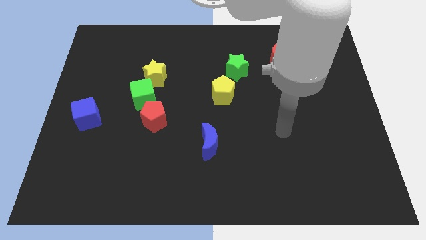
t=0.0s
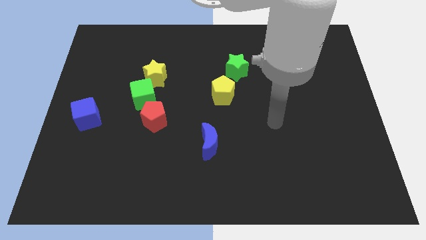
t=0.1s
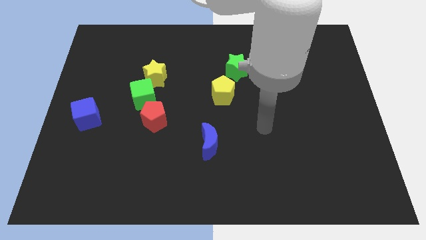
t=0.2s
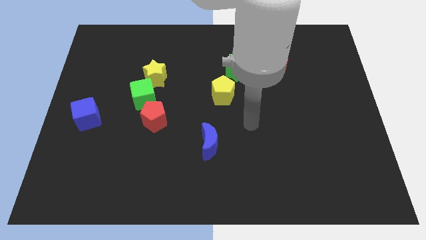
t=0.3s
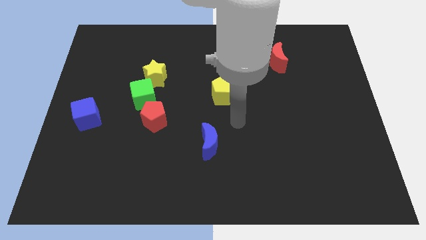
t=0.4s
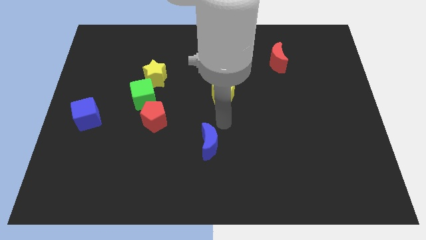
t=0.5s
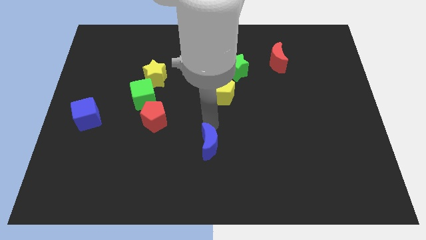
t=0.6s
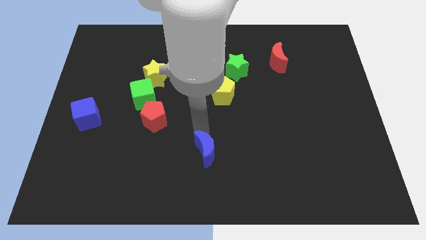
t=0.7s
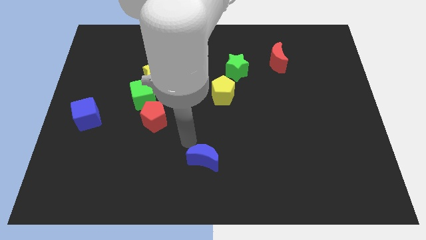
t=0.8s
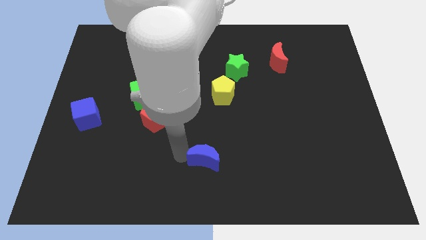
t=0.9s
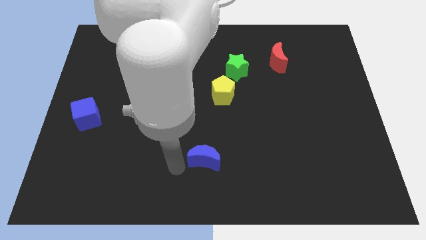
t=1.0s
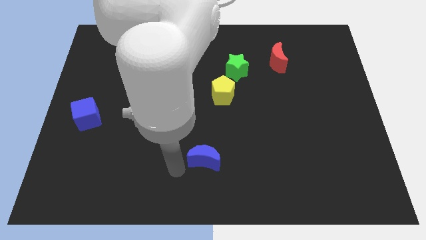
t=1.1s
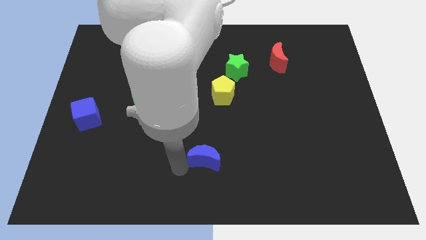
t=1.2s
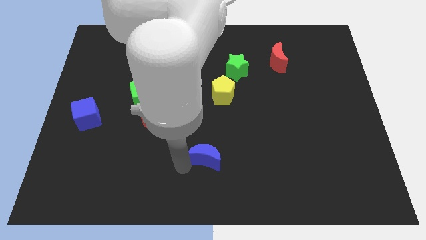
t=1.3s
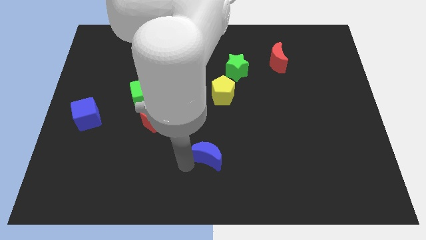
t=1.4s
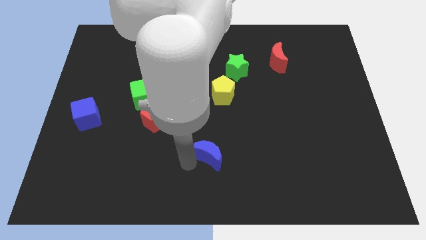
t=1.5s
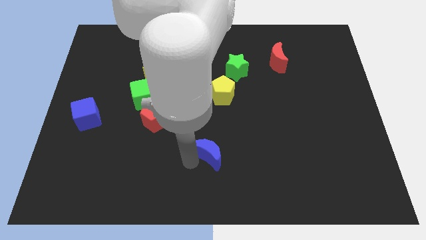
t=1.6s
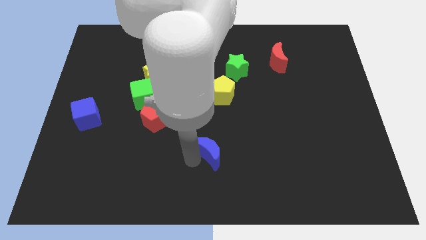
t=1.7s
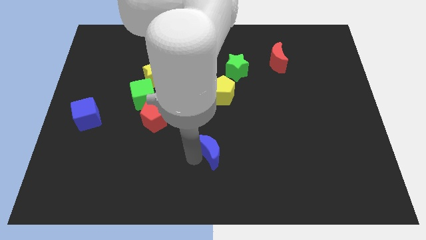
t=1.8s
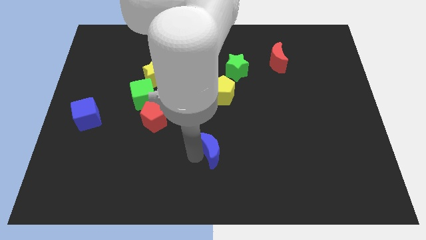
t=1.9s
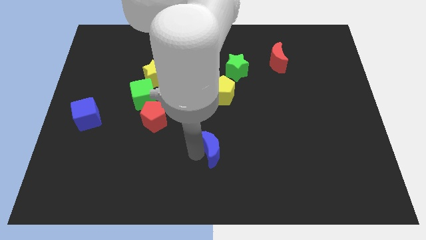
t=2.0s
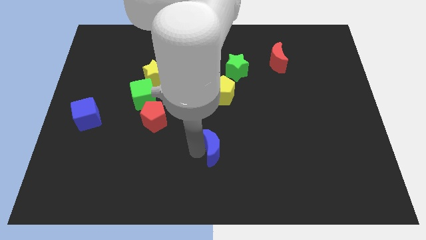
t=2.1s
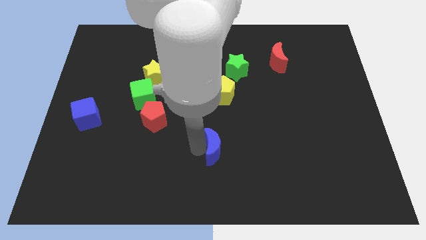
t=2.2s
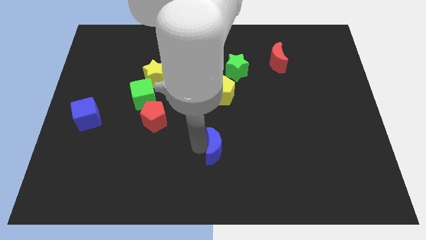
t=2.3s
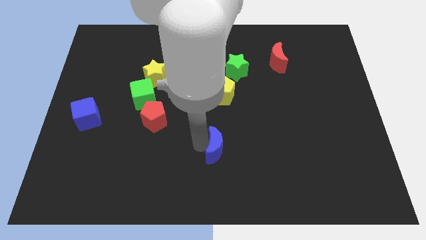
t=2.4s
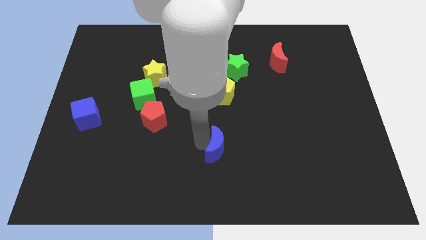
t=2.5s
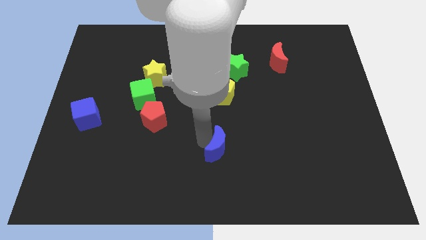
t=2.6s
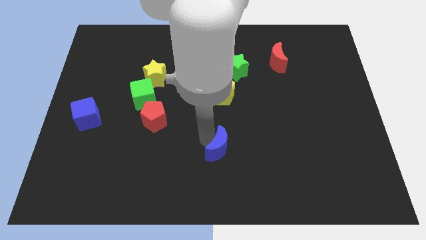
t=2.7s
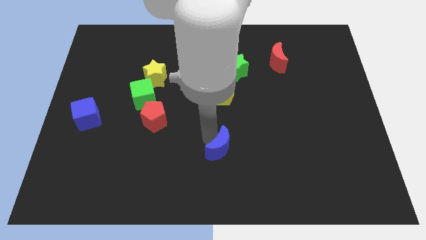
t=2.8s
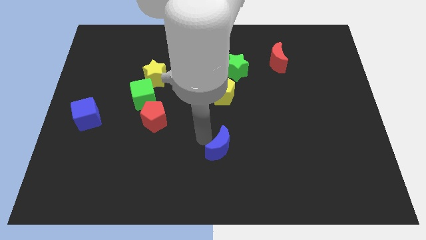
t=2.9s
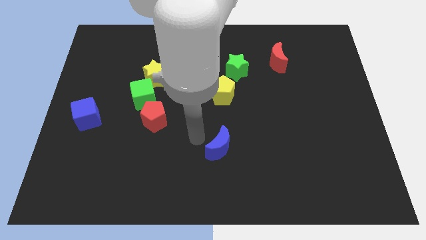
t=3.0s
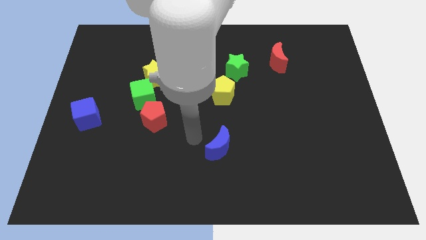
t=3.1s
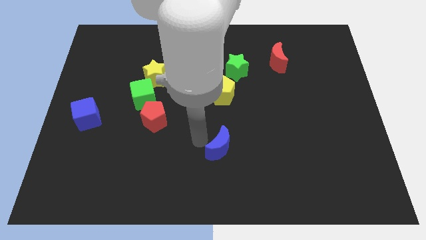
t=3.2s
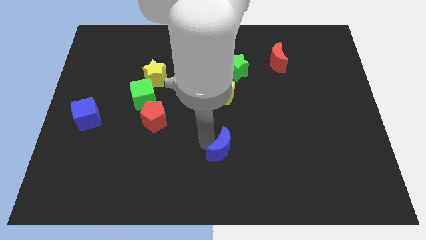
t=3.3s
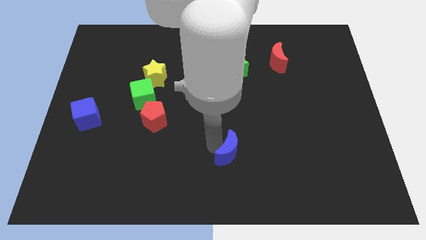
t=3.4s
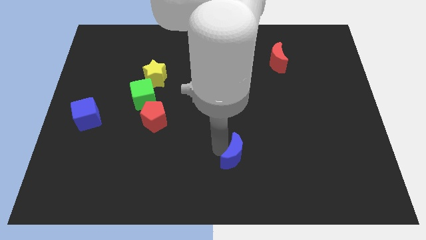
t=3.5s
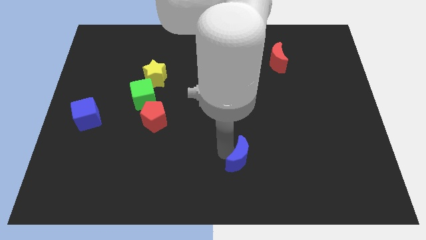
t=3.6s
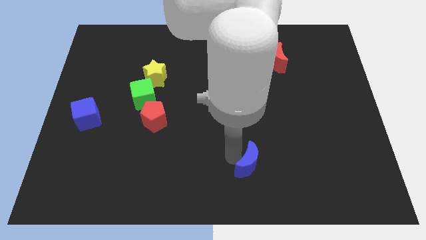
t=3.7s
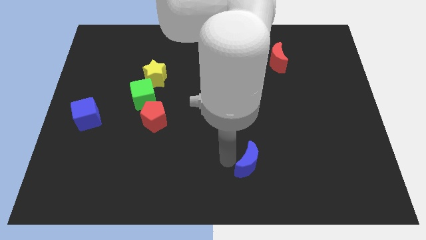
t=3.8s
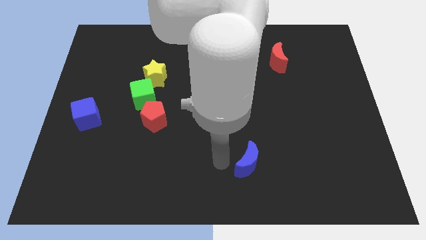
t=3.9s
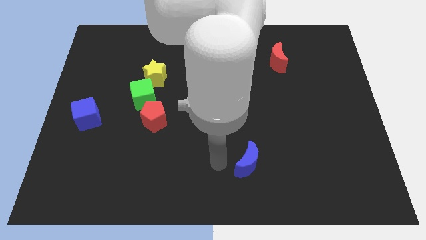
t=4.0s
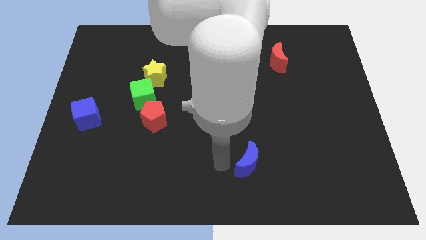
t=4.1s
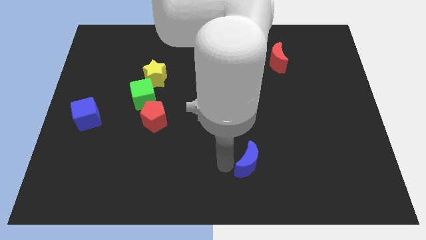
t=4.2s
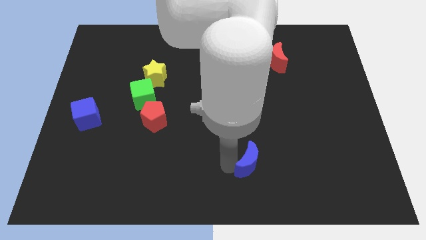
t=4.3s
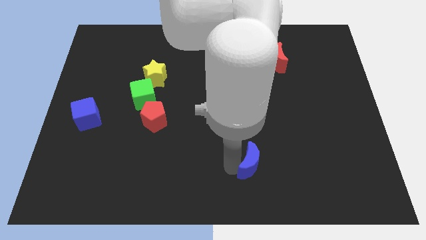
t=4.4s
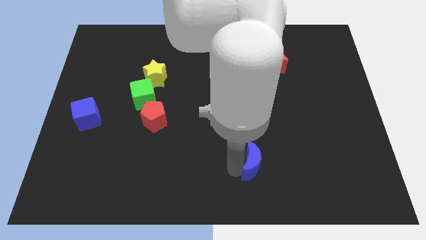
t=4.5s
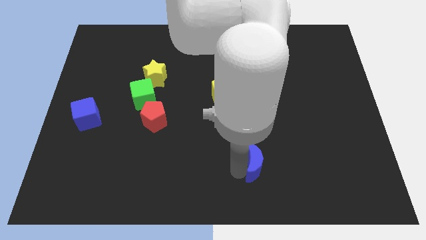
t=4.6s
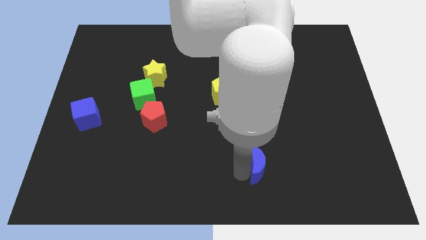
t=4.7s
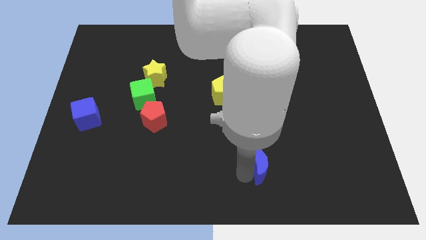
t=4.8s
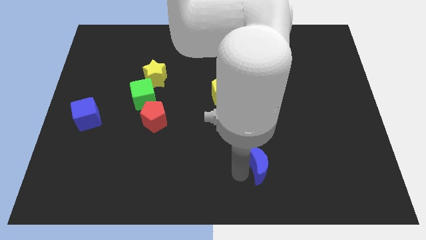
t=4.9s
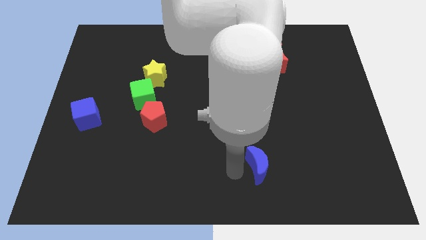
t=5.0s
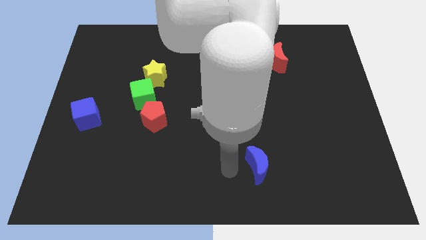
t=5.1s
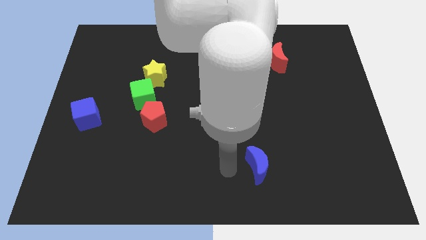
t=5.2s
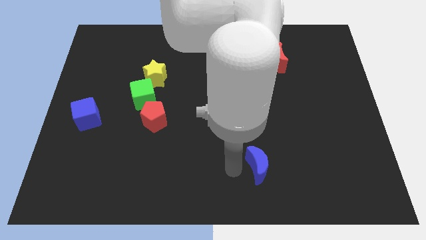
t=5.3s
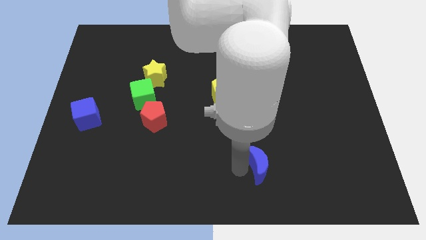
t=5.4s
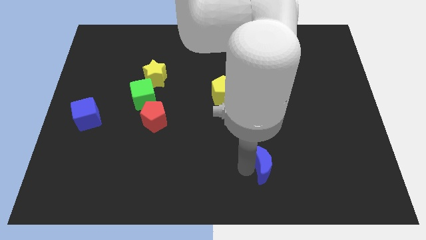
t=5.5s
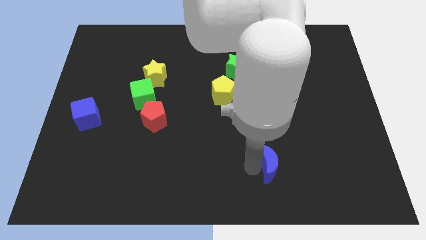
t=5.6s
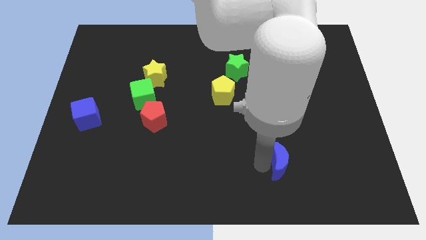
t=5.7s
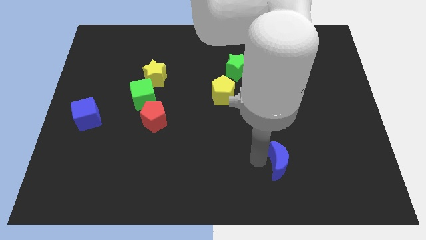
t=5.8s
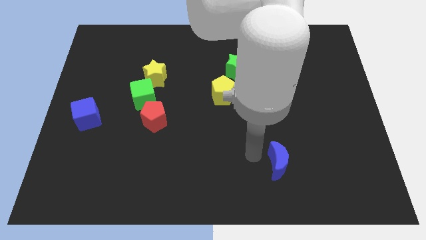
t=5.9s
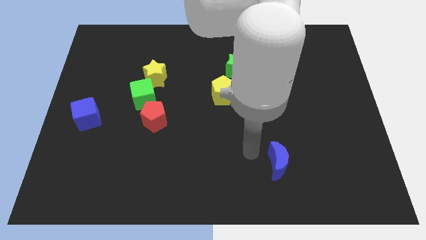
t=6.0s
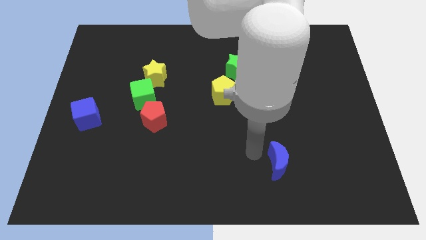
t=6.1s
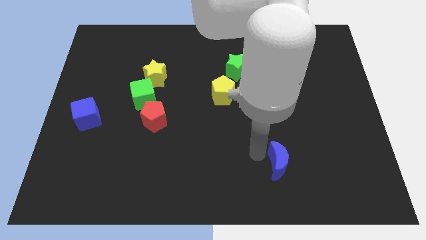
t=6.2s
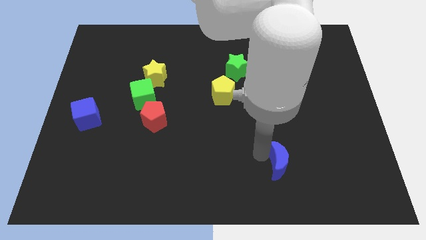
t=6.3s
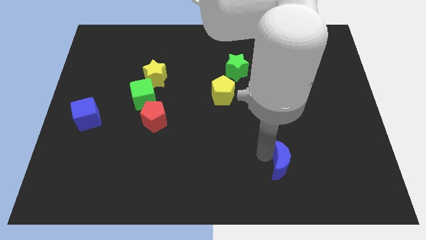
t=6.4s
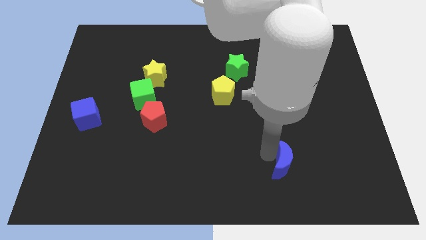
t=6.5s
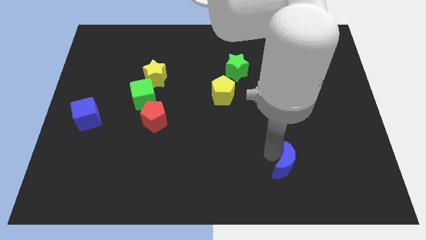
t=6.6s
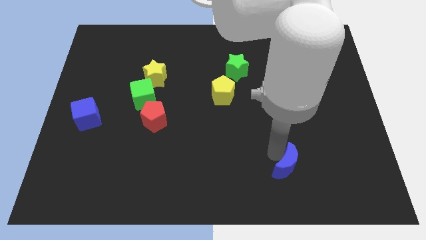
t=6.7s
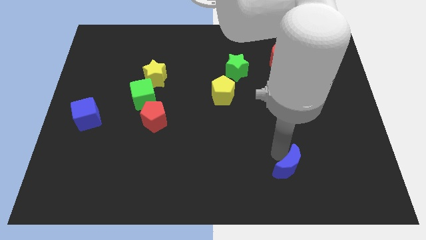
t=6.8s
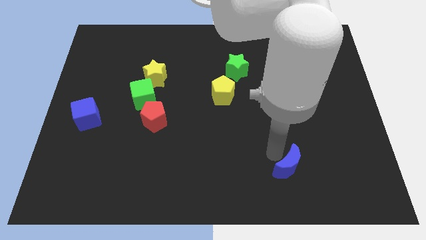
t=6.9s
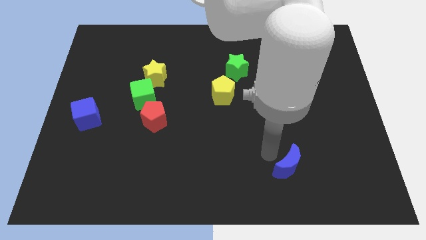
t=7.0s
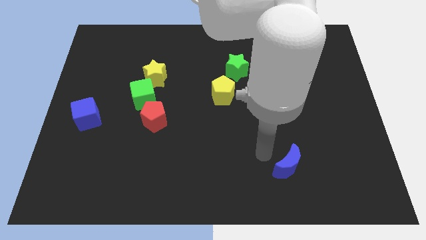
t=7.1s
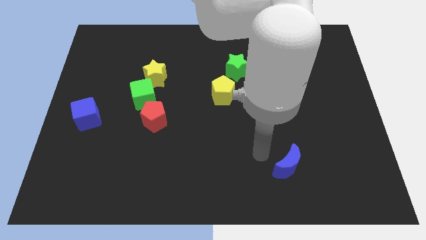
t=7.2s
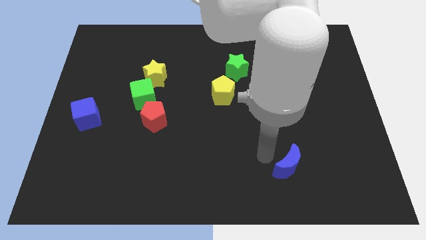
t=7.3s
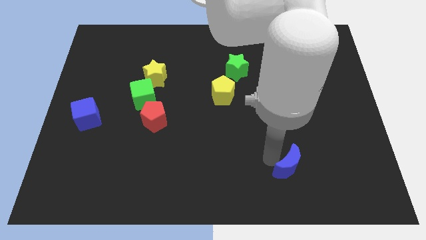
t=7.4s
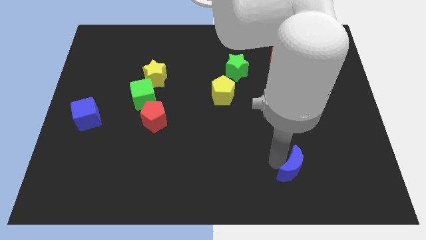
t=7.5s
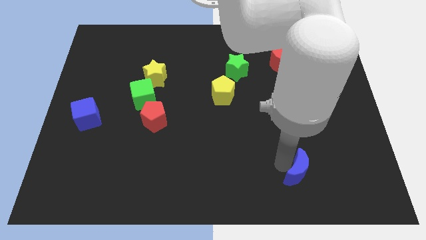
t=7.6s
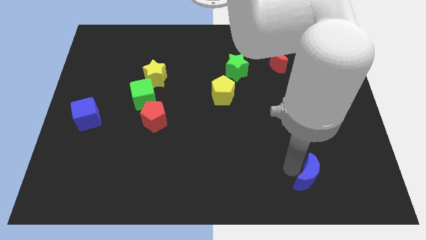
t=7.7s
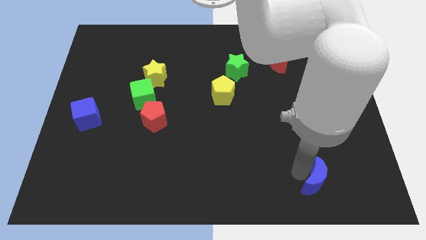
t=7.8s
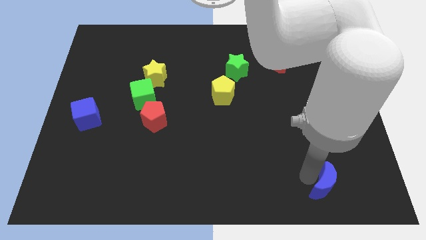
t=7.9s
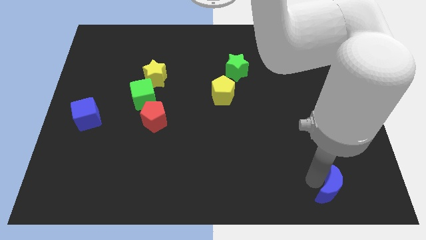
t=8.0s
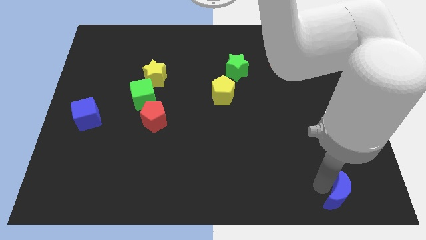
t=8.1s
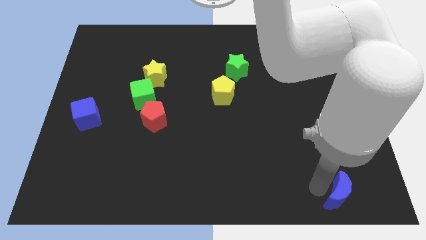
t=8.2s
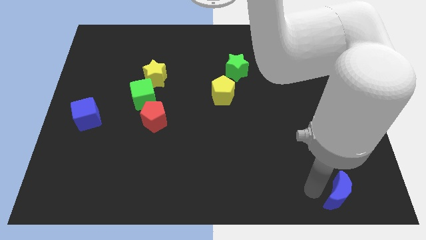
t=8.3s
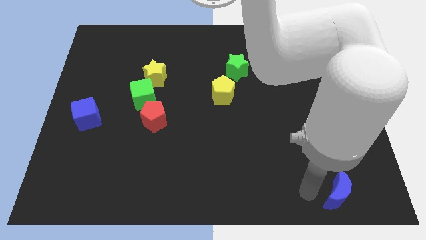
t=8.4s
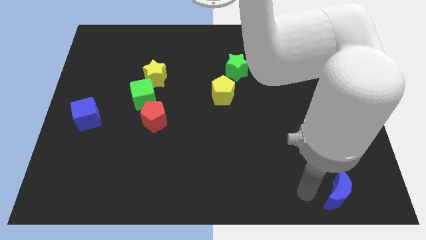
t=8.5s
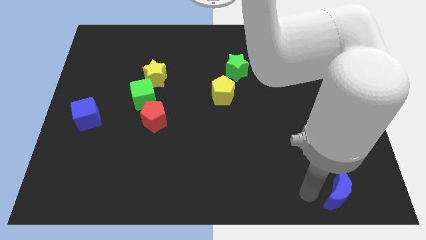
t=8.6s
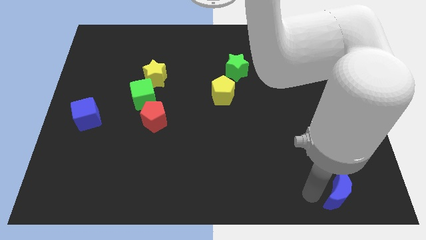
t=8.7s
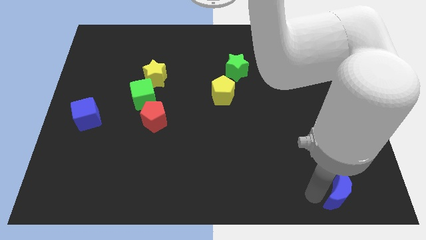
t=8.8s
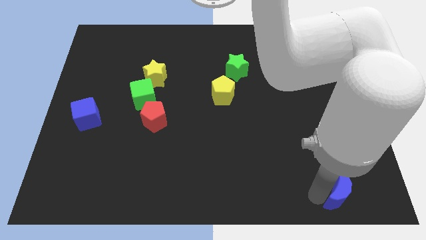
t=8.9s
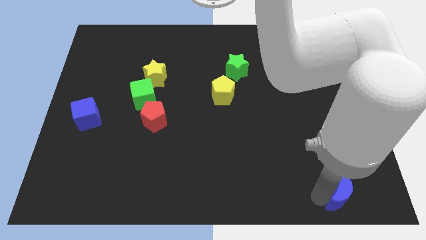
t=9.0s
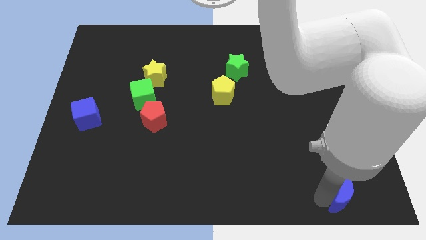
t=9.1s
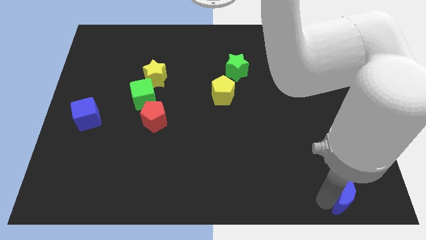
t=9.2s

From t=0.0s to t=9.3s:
push the blue moon to the bottom right
